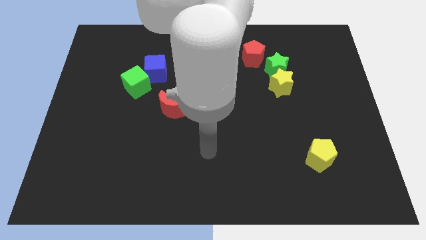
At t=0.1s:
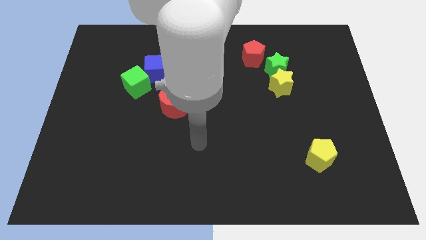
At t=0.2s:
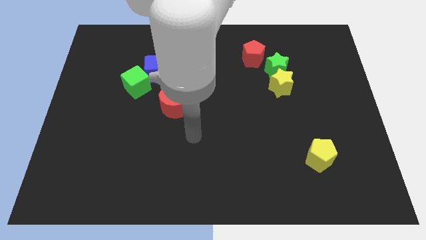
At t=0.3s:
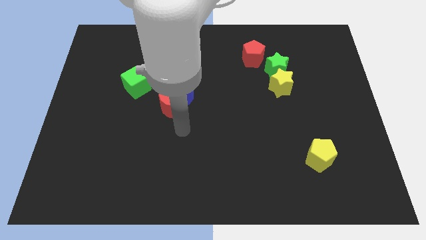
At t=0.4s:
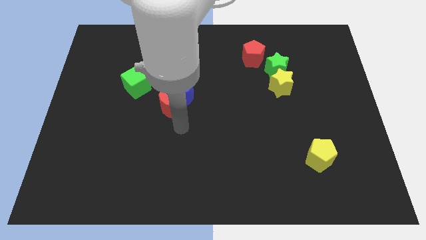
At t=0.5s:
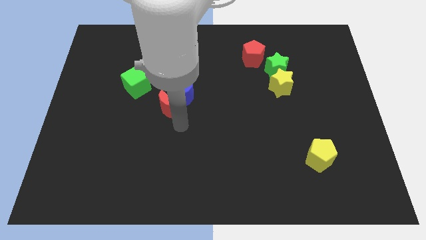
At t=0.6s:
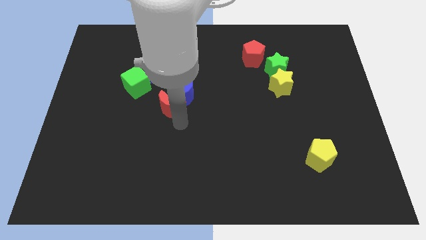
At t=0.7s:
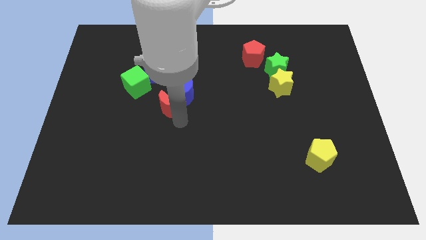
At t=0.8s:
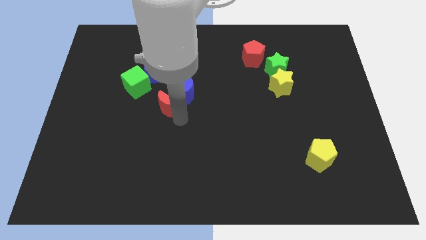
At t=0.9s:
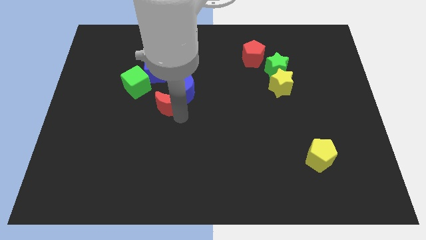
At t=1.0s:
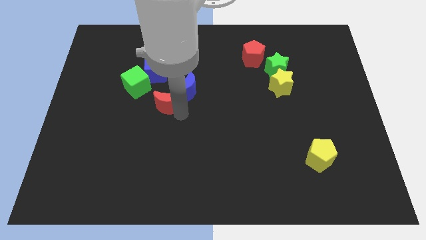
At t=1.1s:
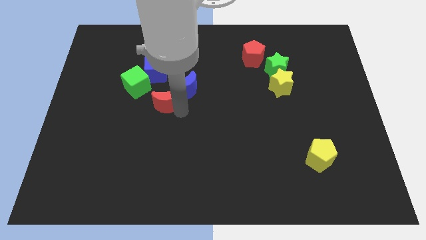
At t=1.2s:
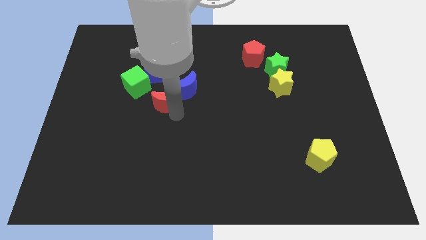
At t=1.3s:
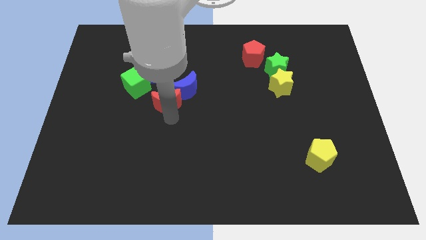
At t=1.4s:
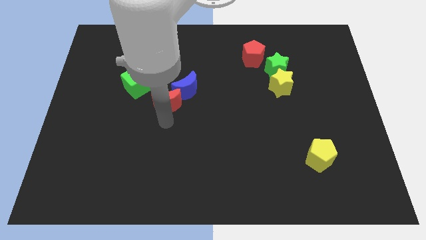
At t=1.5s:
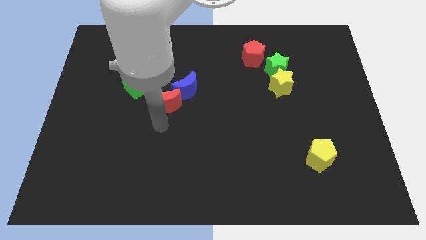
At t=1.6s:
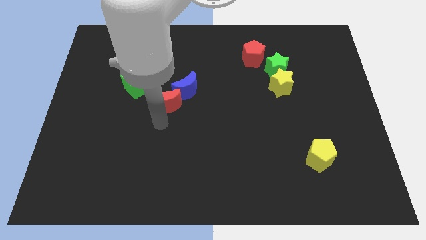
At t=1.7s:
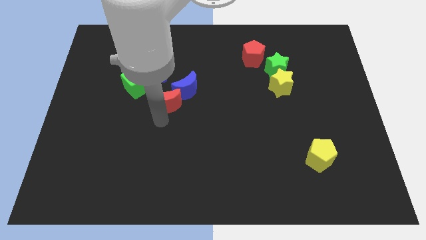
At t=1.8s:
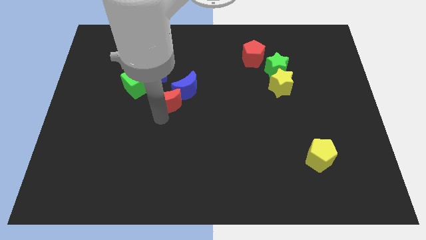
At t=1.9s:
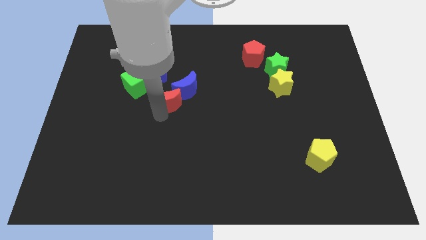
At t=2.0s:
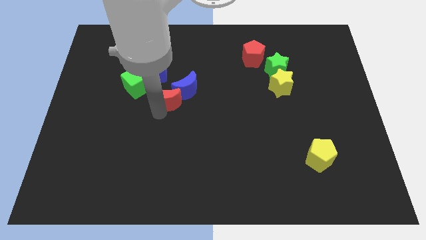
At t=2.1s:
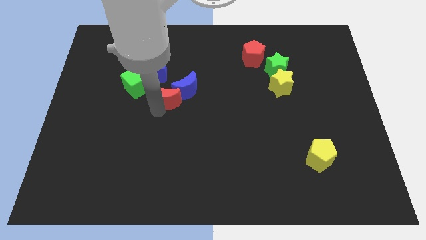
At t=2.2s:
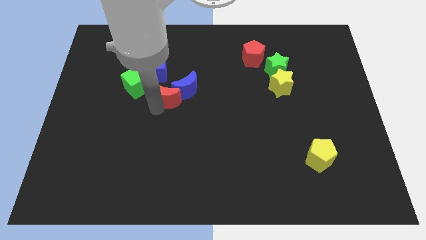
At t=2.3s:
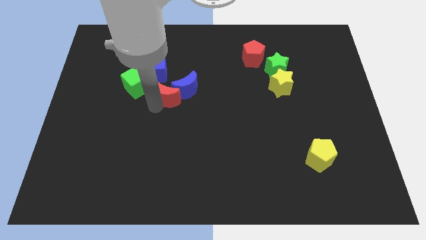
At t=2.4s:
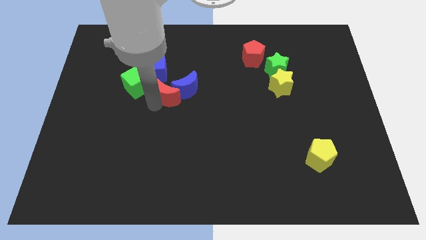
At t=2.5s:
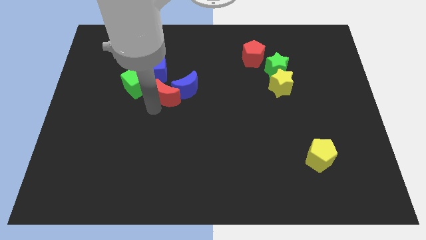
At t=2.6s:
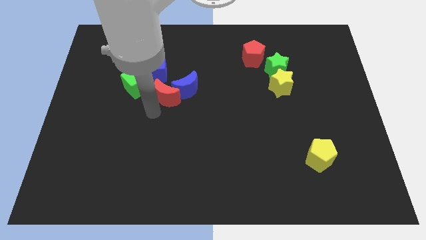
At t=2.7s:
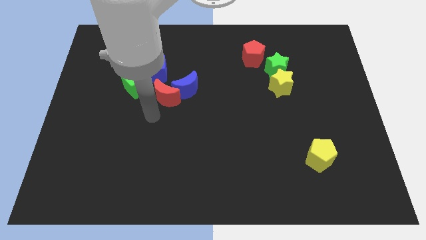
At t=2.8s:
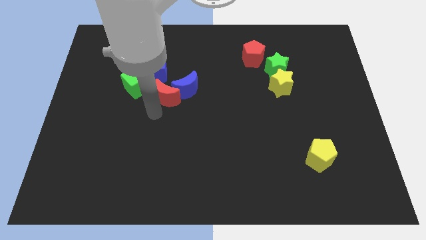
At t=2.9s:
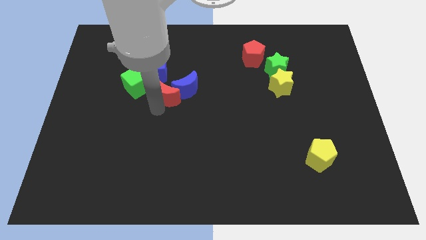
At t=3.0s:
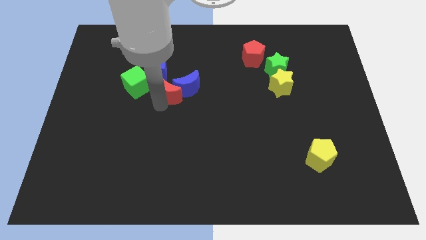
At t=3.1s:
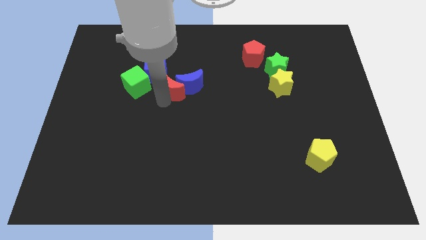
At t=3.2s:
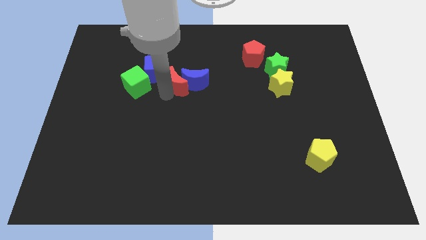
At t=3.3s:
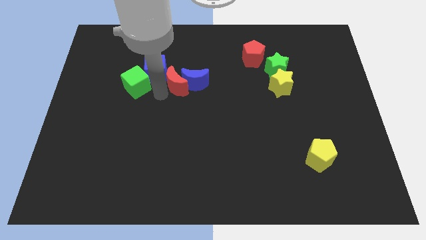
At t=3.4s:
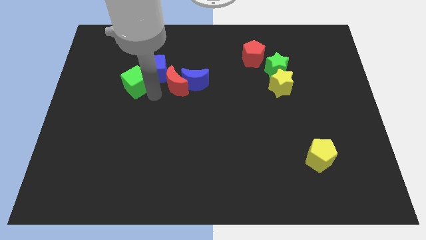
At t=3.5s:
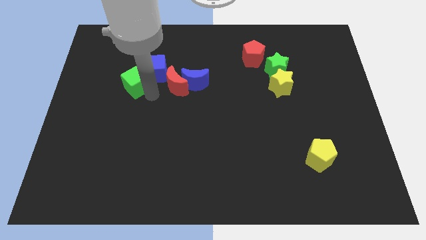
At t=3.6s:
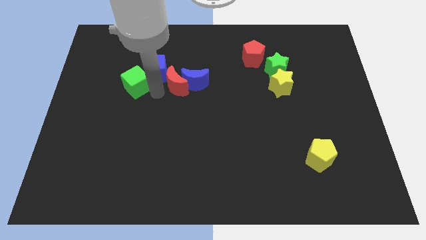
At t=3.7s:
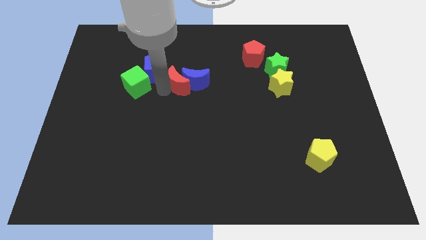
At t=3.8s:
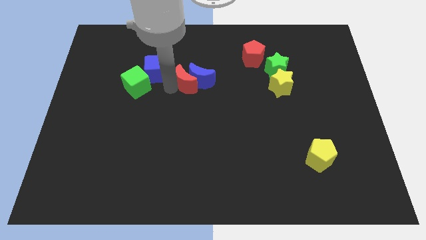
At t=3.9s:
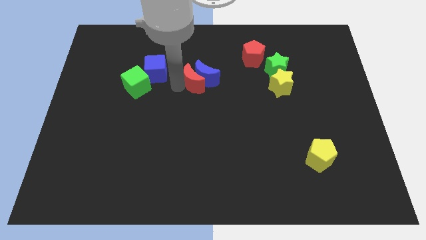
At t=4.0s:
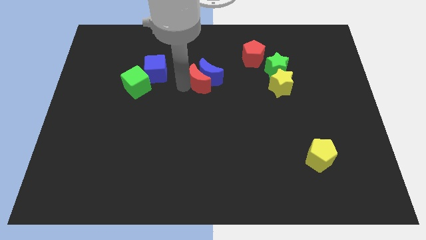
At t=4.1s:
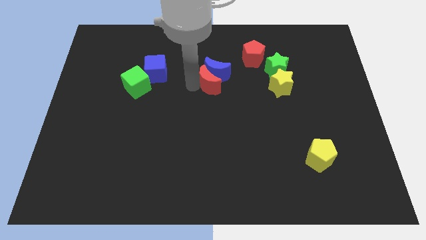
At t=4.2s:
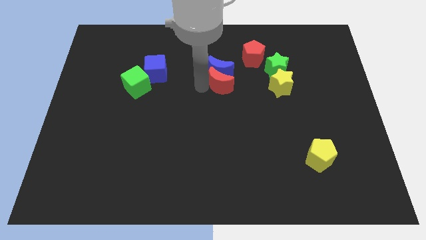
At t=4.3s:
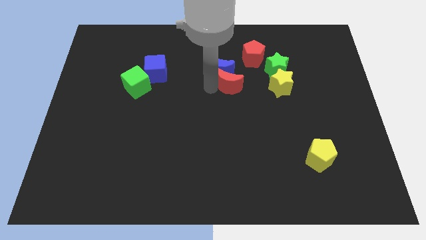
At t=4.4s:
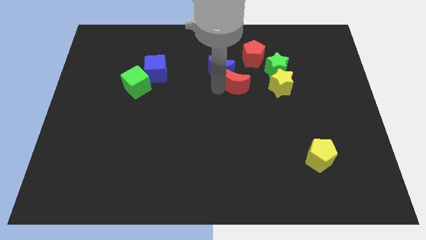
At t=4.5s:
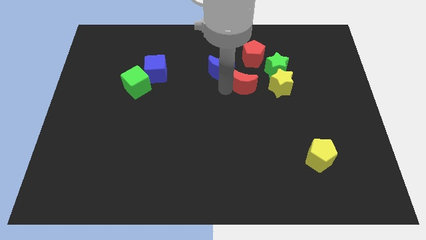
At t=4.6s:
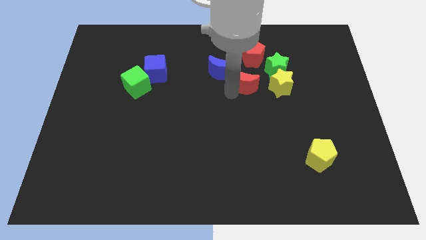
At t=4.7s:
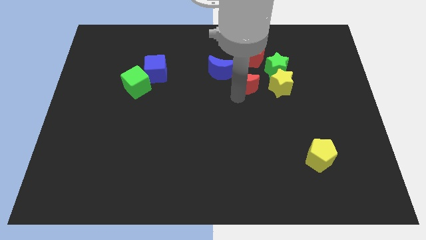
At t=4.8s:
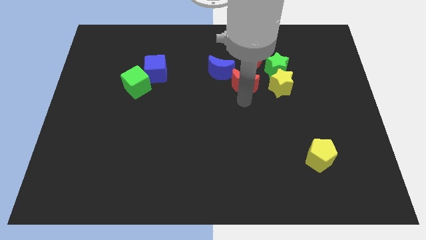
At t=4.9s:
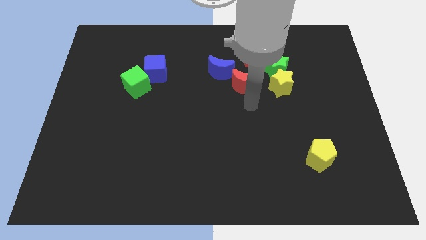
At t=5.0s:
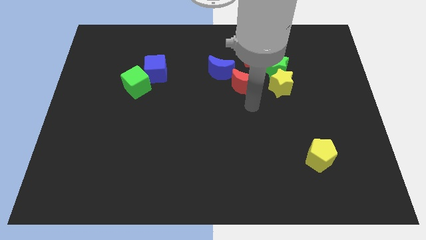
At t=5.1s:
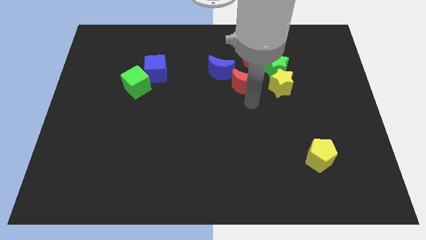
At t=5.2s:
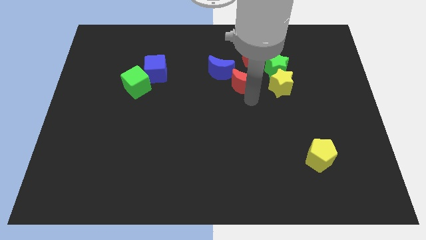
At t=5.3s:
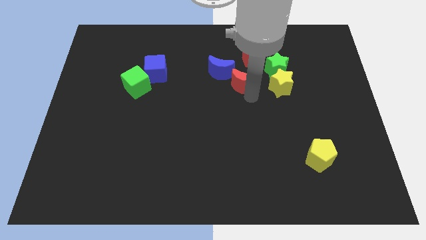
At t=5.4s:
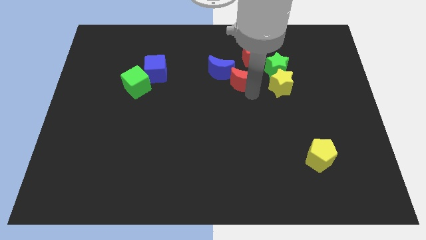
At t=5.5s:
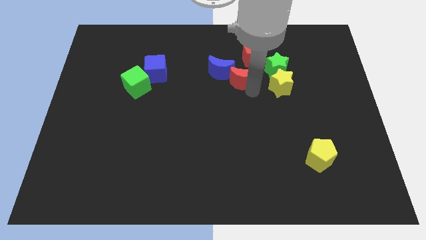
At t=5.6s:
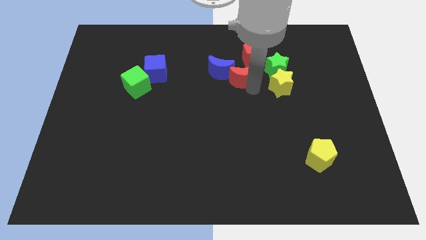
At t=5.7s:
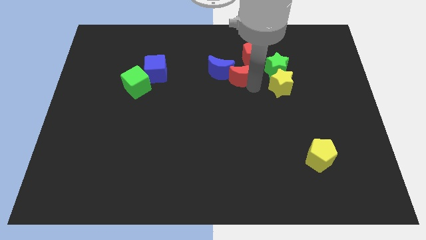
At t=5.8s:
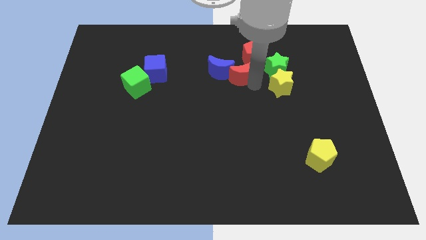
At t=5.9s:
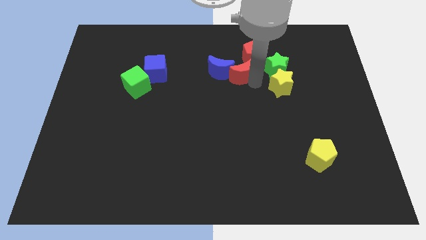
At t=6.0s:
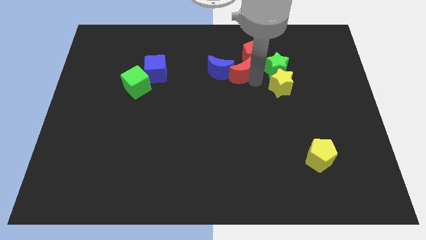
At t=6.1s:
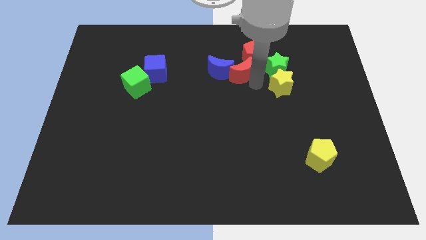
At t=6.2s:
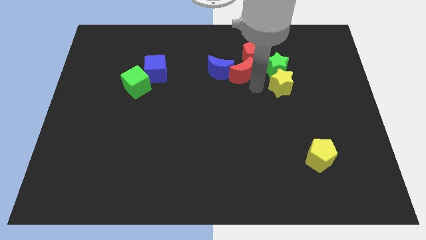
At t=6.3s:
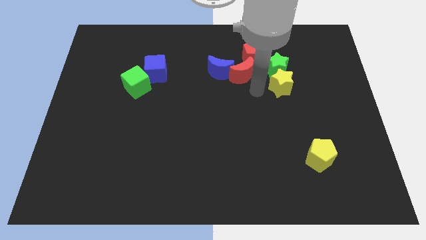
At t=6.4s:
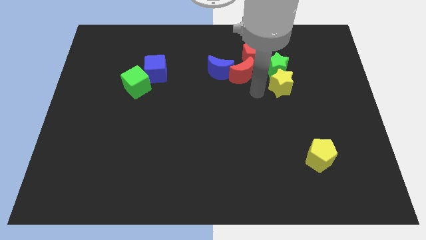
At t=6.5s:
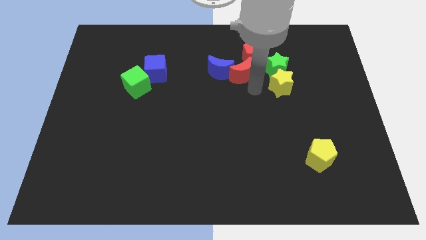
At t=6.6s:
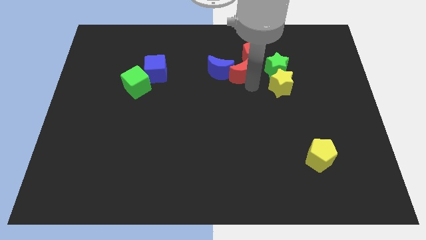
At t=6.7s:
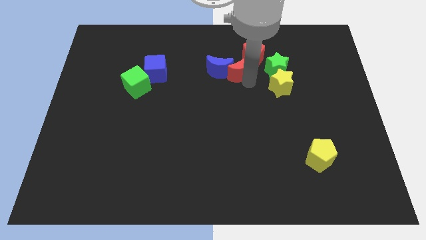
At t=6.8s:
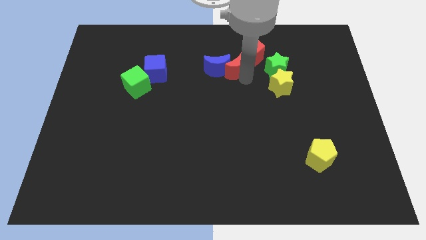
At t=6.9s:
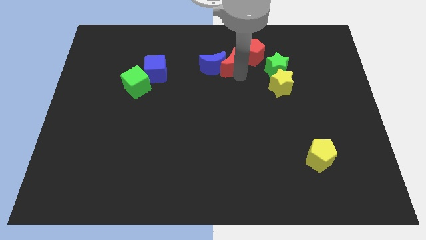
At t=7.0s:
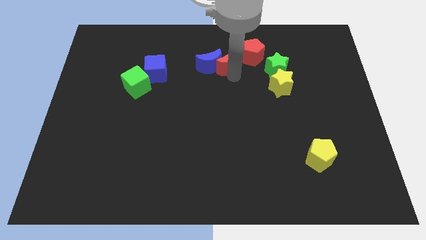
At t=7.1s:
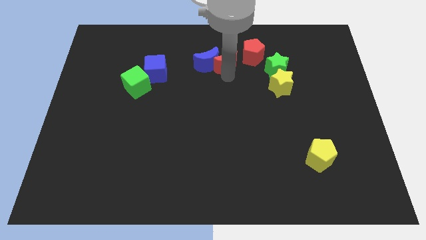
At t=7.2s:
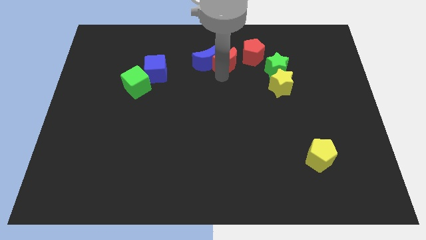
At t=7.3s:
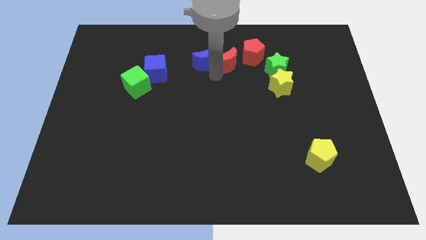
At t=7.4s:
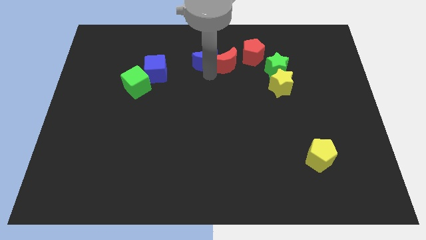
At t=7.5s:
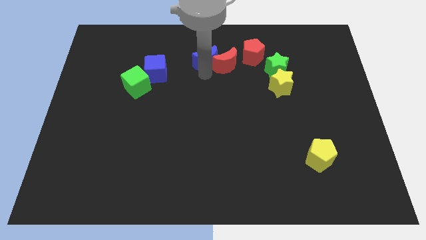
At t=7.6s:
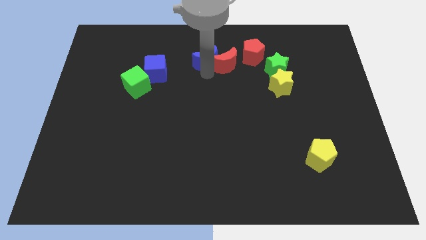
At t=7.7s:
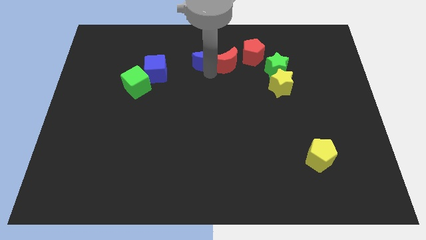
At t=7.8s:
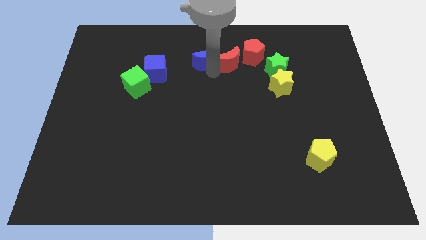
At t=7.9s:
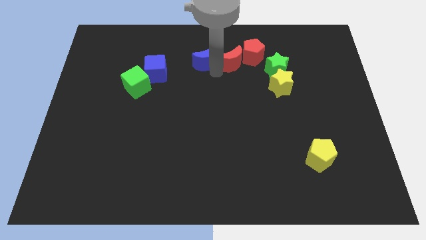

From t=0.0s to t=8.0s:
move the red moon towards the red pentagon
